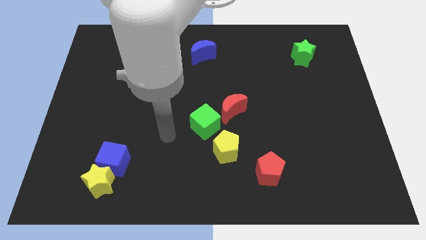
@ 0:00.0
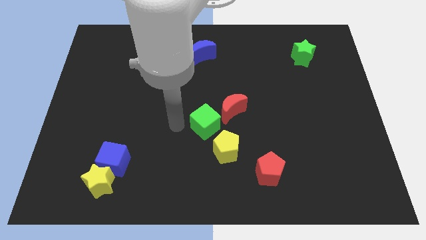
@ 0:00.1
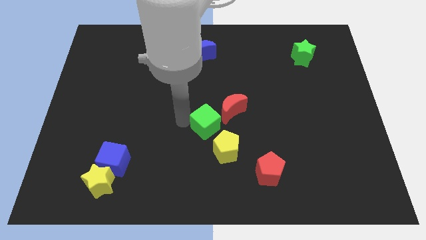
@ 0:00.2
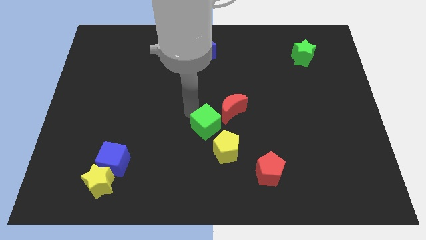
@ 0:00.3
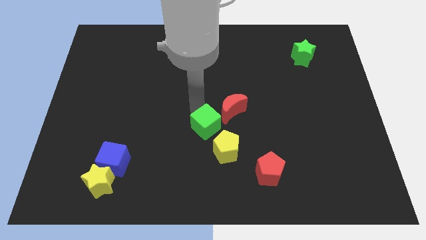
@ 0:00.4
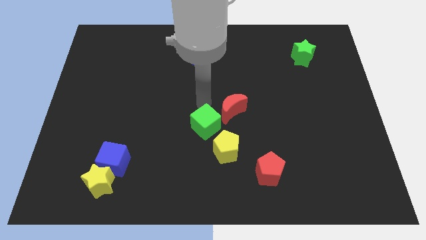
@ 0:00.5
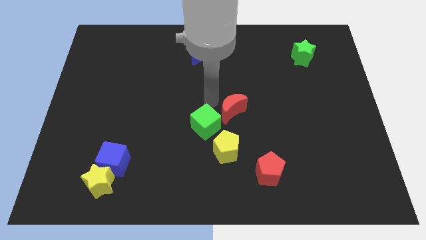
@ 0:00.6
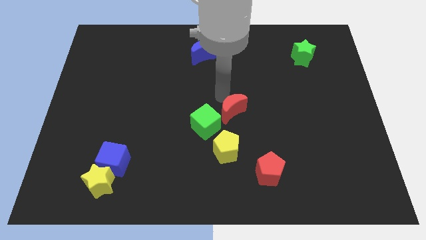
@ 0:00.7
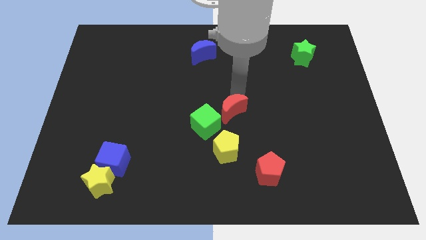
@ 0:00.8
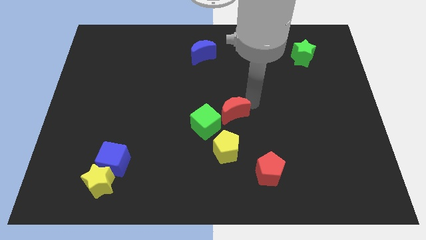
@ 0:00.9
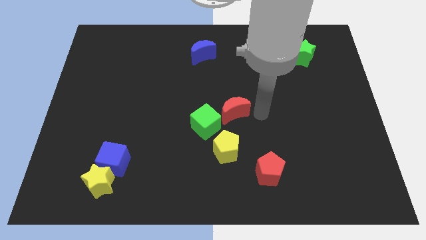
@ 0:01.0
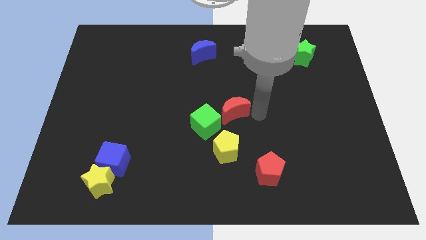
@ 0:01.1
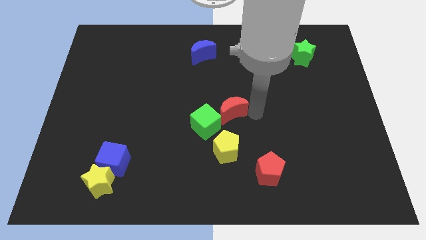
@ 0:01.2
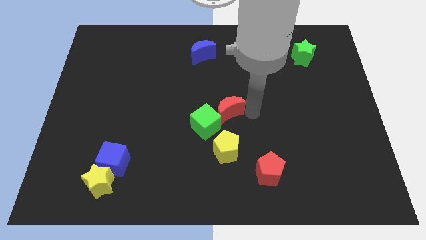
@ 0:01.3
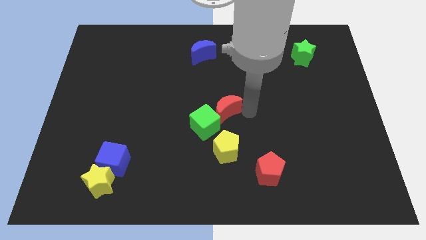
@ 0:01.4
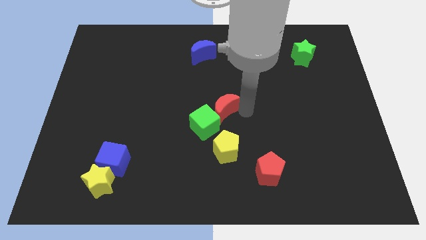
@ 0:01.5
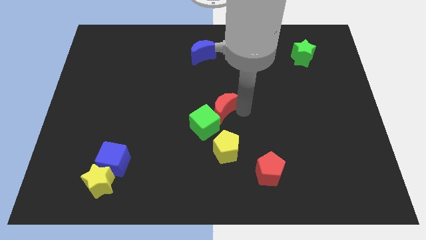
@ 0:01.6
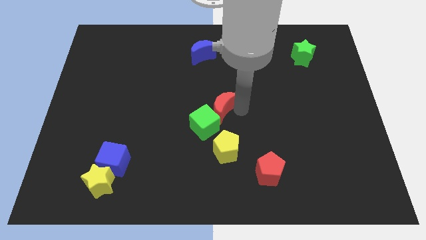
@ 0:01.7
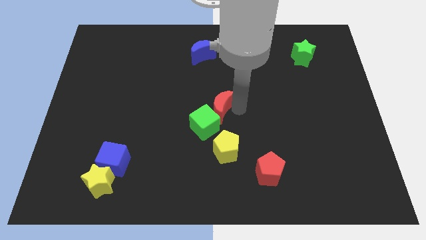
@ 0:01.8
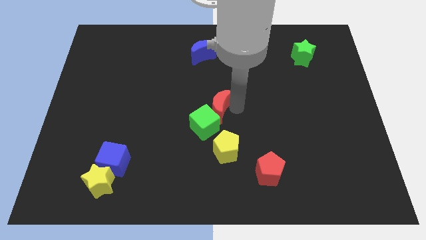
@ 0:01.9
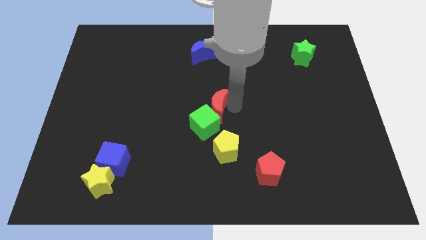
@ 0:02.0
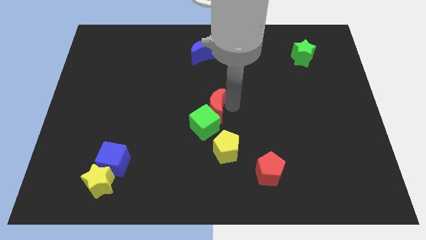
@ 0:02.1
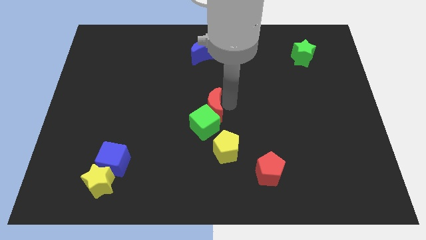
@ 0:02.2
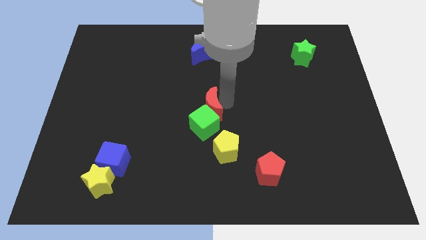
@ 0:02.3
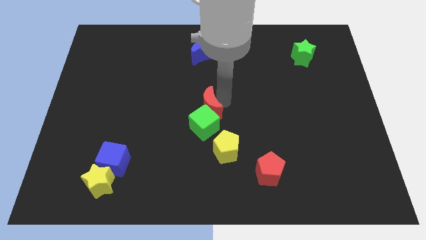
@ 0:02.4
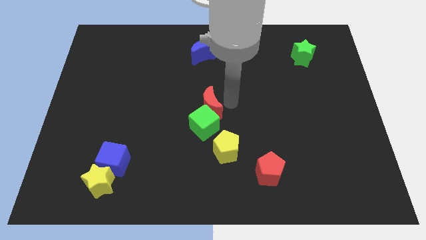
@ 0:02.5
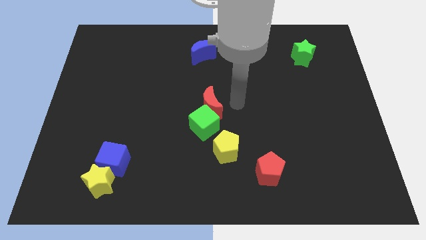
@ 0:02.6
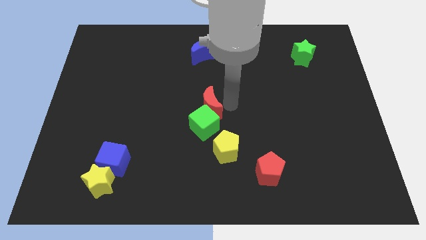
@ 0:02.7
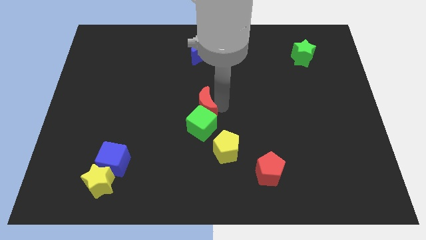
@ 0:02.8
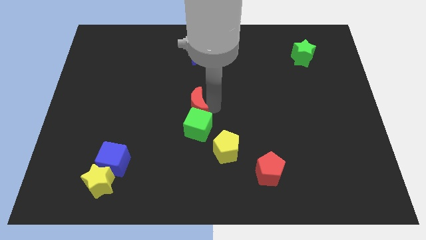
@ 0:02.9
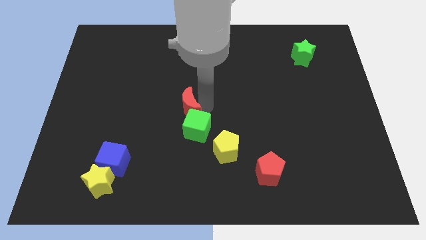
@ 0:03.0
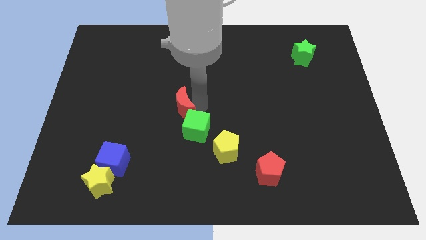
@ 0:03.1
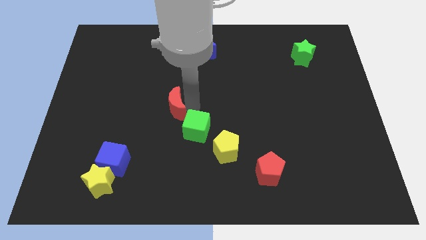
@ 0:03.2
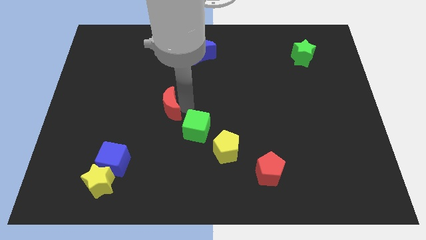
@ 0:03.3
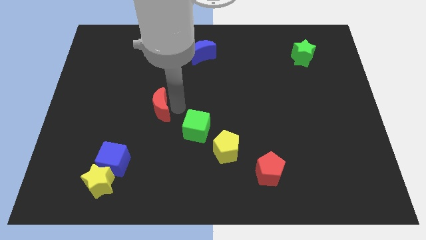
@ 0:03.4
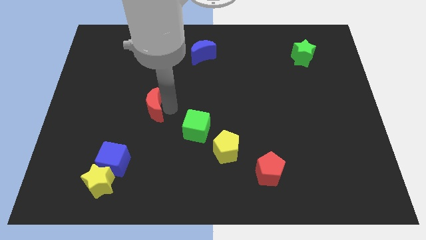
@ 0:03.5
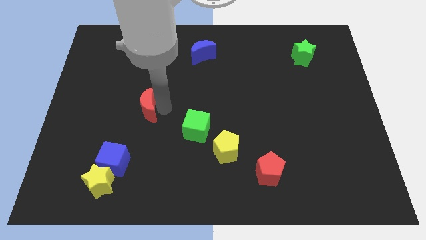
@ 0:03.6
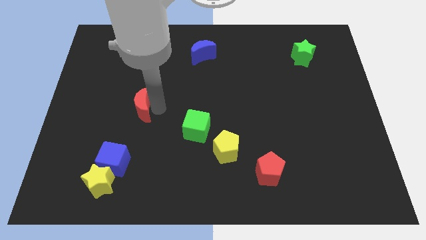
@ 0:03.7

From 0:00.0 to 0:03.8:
push the red moon left

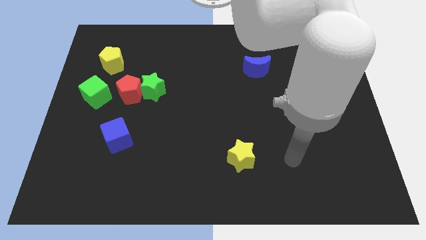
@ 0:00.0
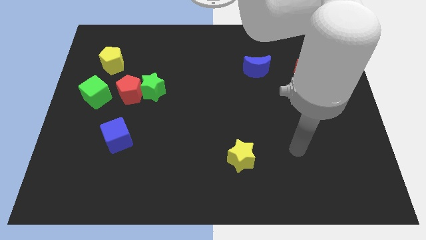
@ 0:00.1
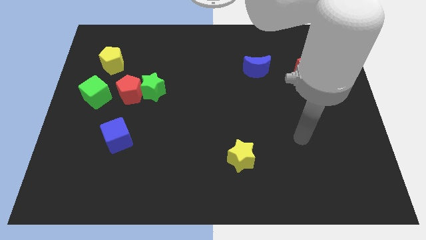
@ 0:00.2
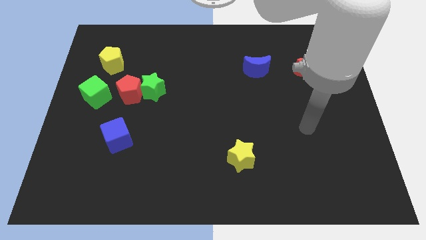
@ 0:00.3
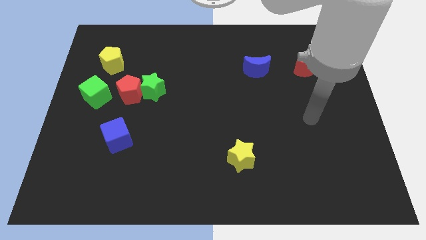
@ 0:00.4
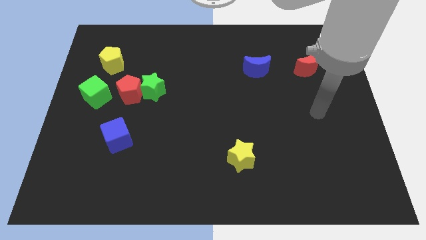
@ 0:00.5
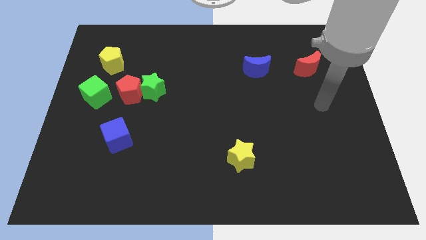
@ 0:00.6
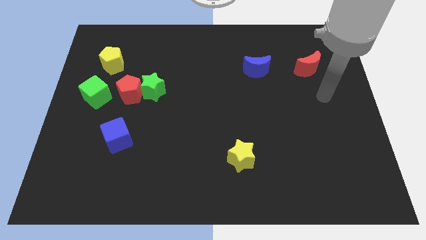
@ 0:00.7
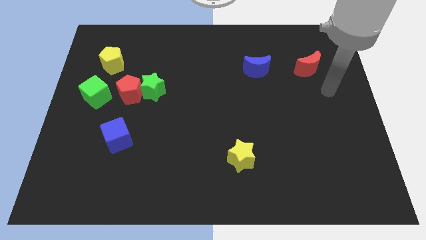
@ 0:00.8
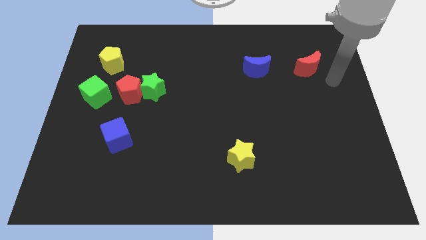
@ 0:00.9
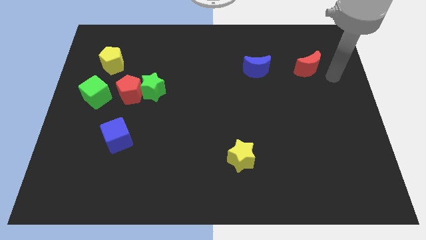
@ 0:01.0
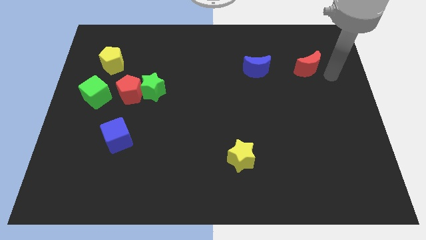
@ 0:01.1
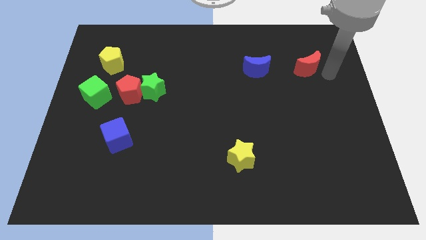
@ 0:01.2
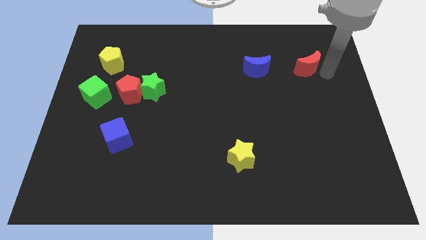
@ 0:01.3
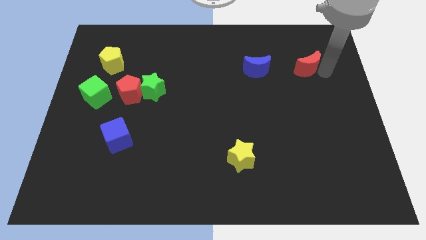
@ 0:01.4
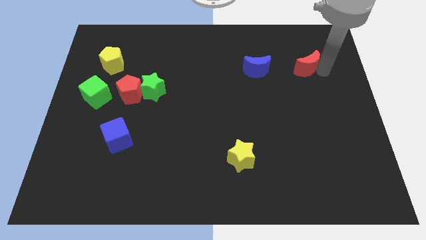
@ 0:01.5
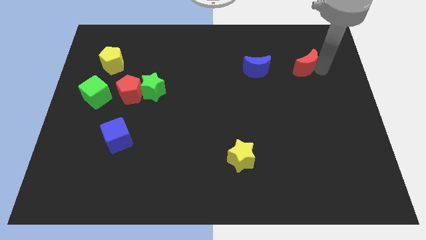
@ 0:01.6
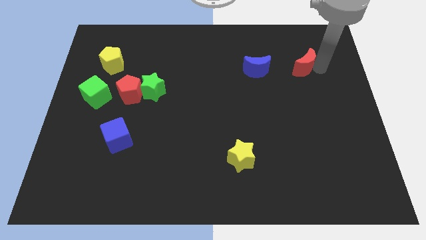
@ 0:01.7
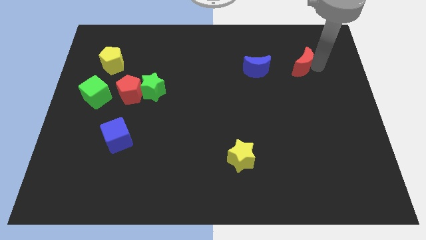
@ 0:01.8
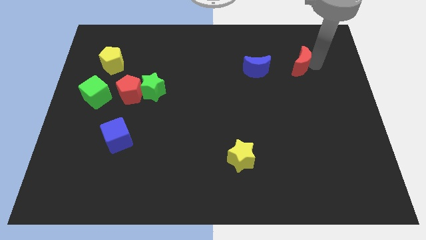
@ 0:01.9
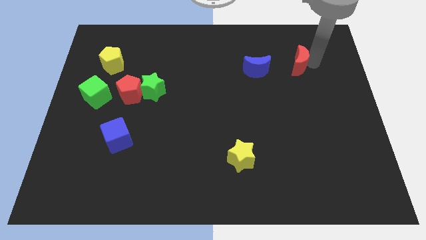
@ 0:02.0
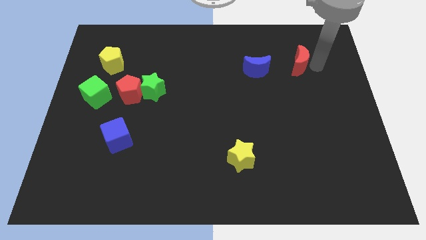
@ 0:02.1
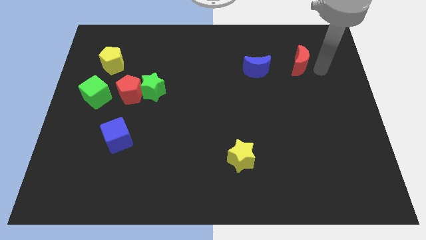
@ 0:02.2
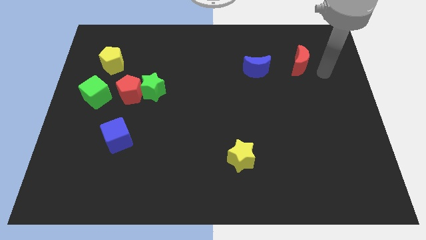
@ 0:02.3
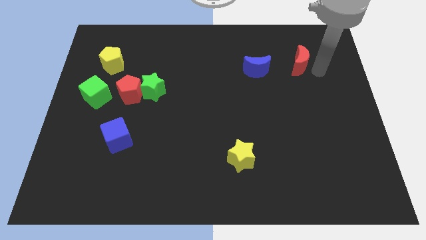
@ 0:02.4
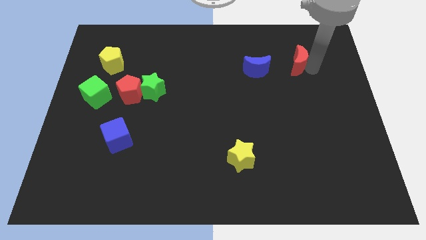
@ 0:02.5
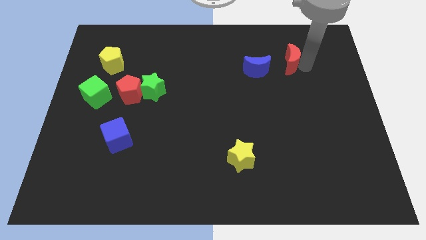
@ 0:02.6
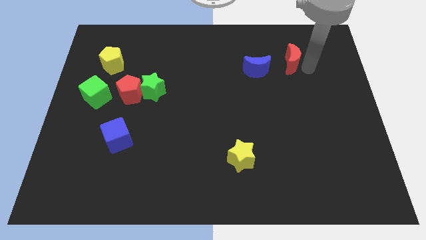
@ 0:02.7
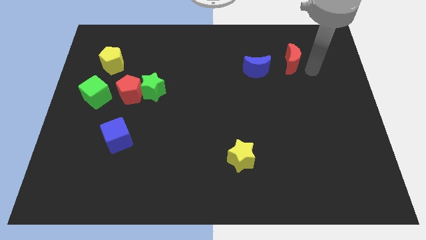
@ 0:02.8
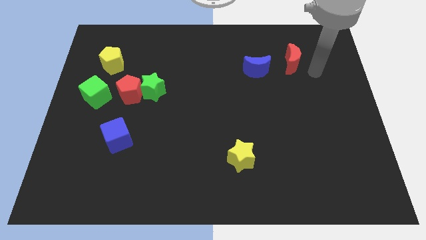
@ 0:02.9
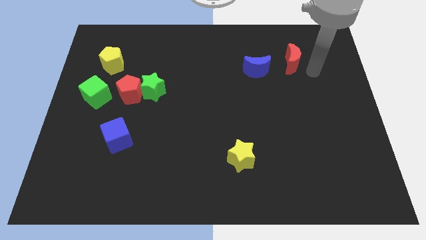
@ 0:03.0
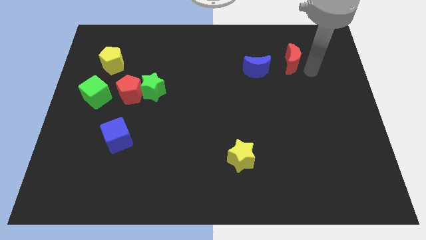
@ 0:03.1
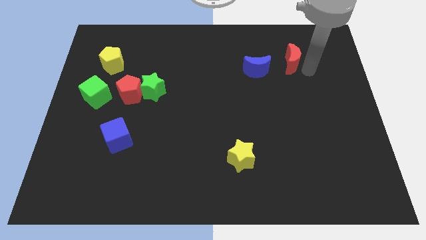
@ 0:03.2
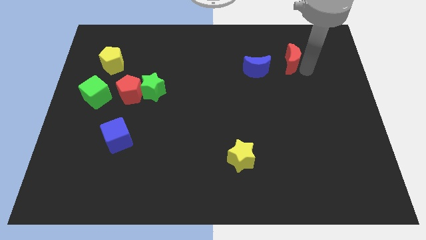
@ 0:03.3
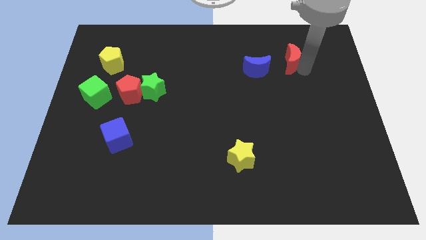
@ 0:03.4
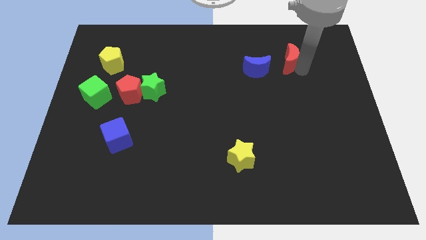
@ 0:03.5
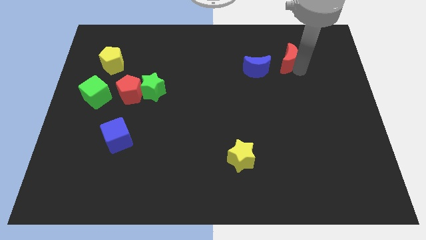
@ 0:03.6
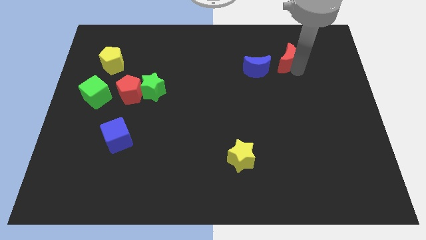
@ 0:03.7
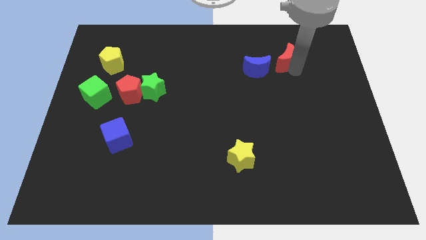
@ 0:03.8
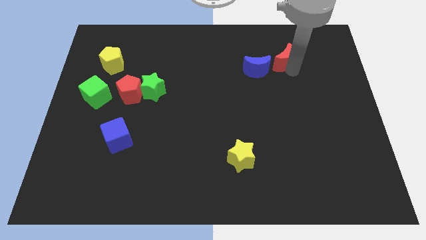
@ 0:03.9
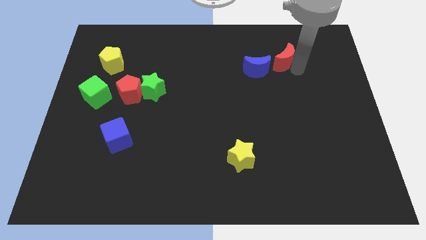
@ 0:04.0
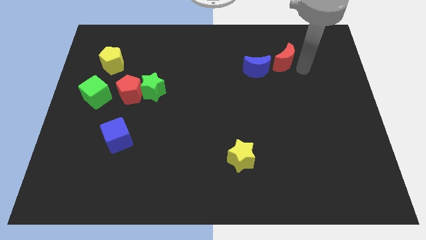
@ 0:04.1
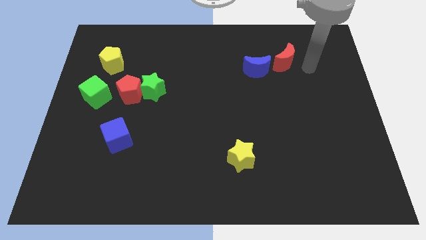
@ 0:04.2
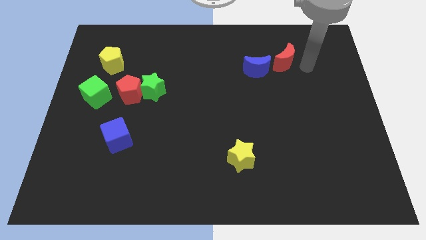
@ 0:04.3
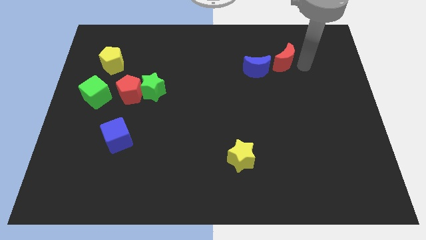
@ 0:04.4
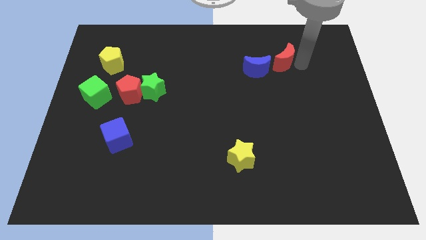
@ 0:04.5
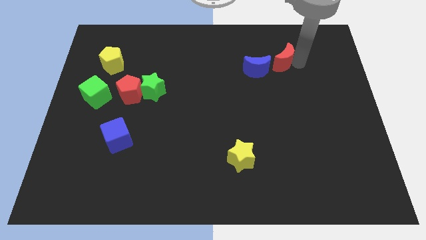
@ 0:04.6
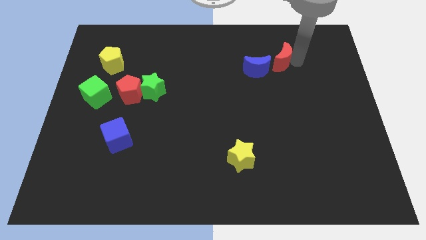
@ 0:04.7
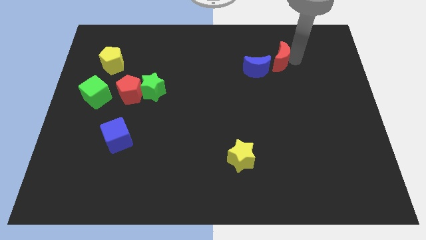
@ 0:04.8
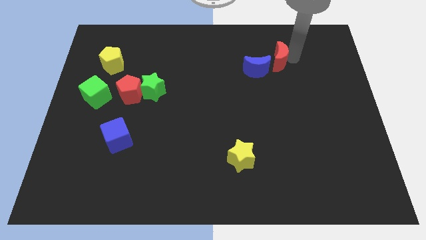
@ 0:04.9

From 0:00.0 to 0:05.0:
slide the red moon a little to the left
